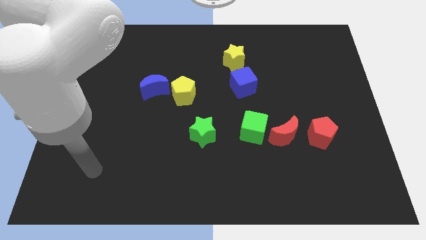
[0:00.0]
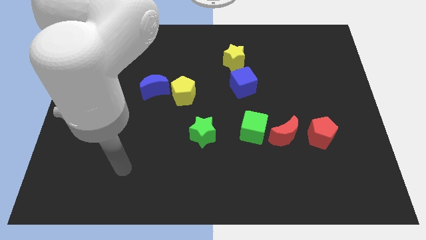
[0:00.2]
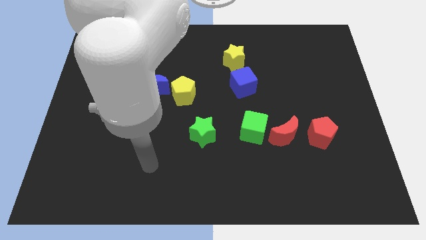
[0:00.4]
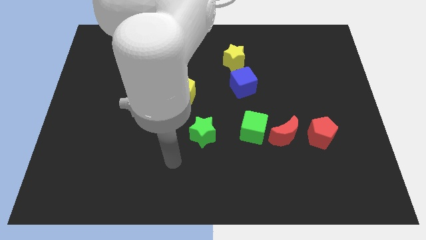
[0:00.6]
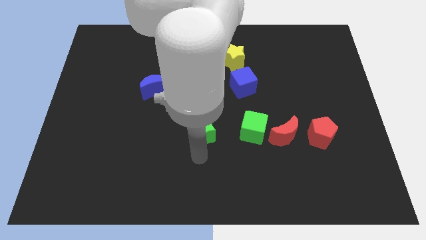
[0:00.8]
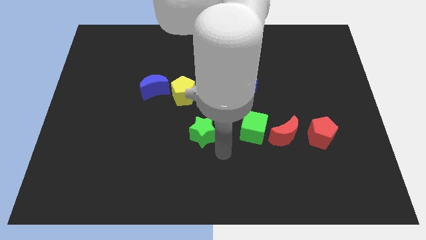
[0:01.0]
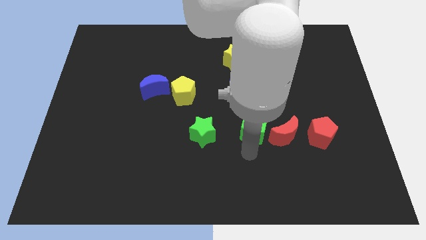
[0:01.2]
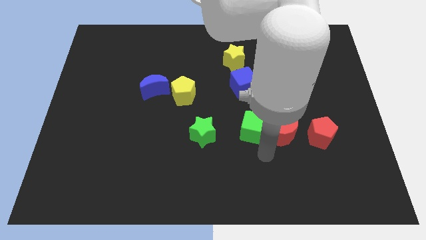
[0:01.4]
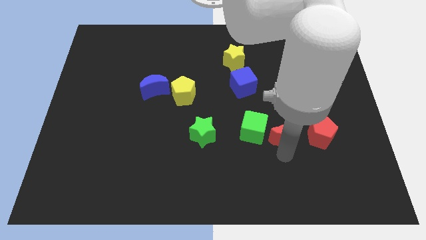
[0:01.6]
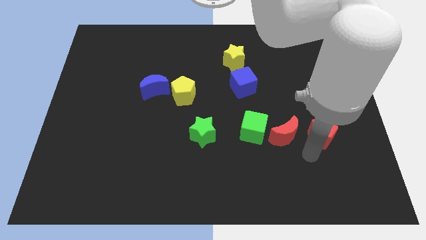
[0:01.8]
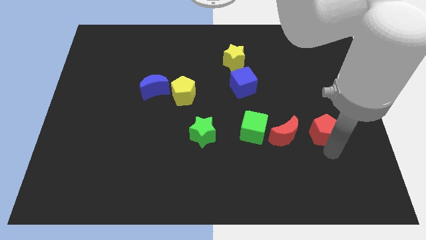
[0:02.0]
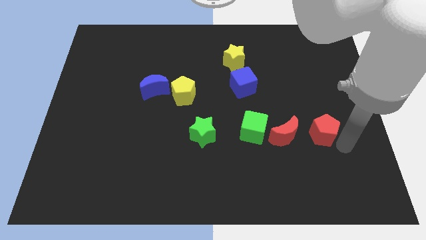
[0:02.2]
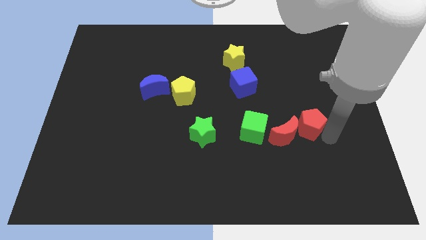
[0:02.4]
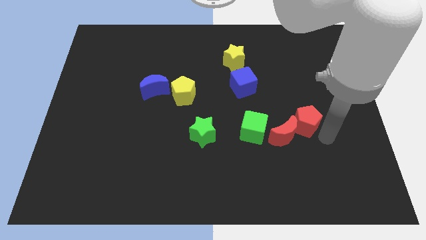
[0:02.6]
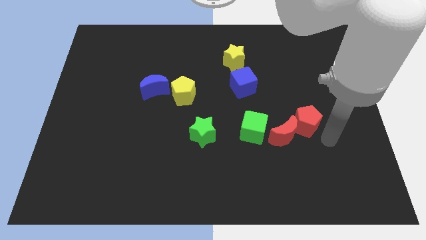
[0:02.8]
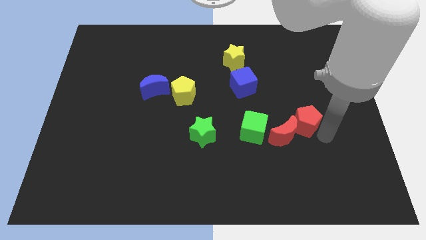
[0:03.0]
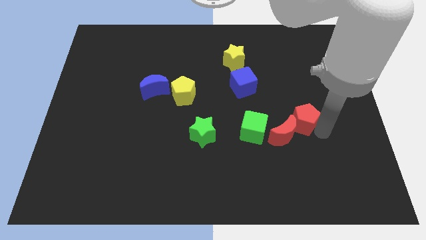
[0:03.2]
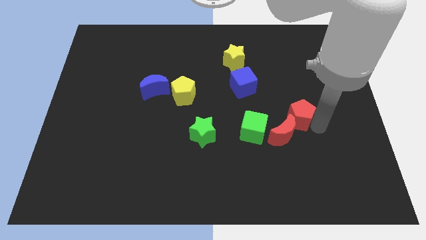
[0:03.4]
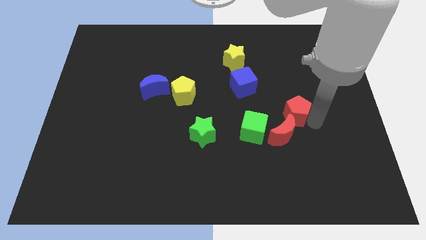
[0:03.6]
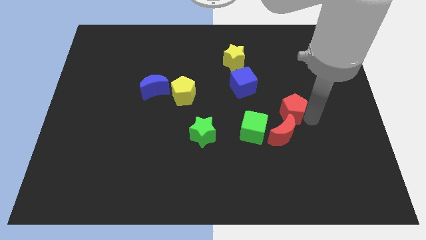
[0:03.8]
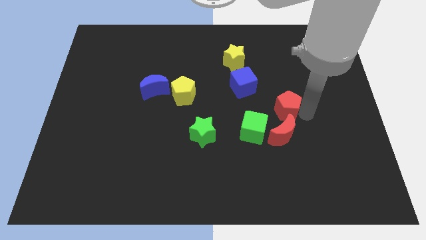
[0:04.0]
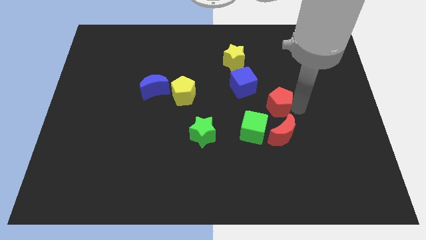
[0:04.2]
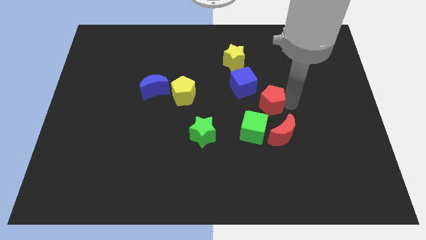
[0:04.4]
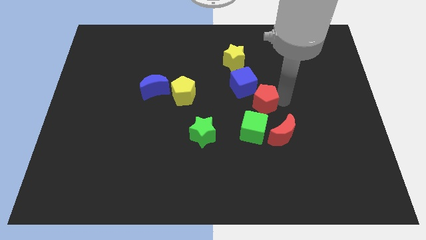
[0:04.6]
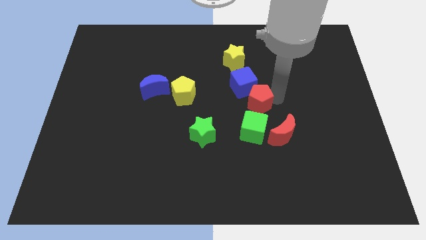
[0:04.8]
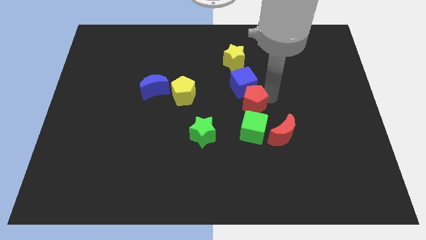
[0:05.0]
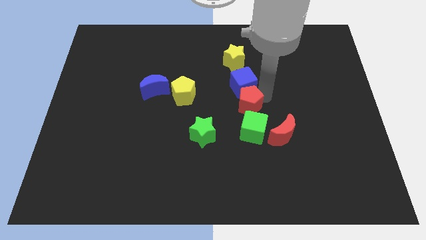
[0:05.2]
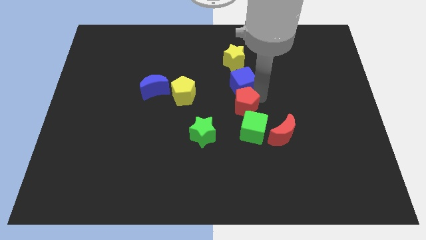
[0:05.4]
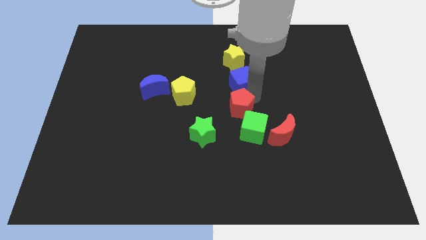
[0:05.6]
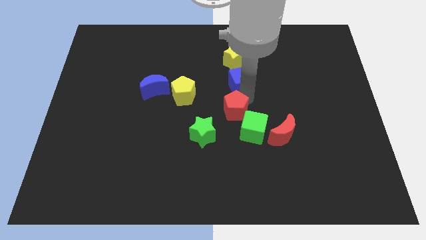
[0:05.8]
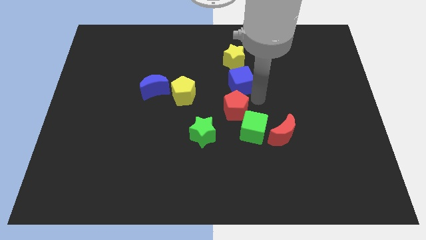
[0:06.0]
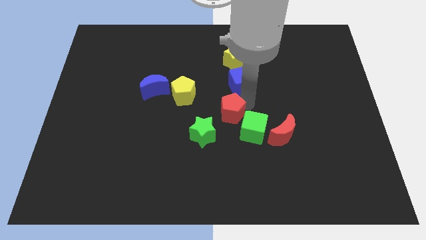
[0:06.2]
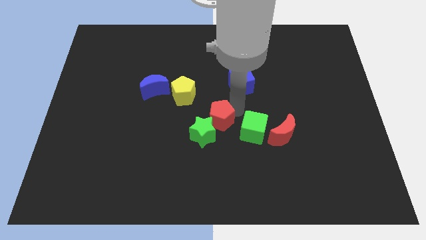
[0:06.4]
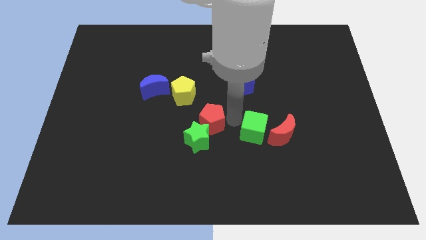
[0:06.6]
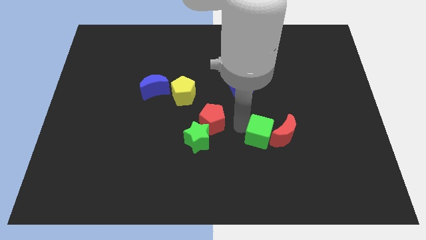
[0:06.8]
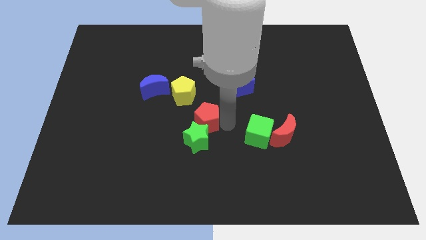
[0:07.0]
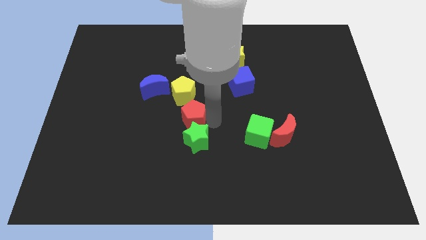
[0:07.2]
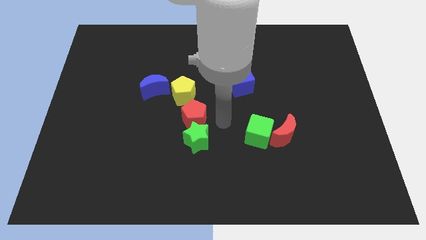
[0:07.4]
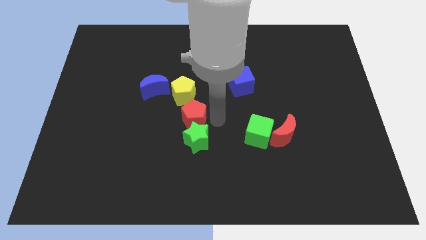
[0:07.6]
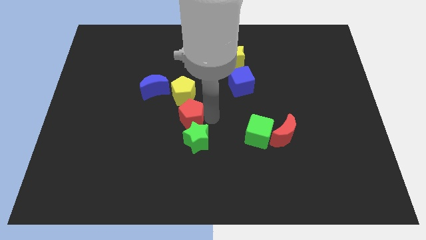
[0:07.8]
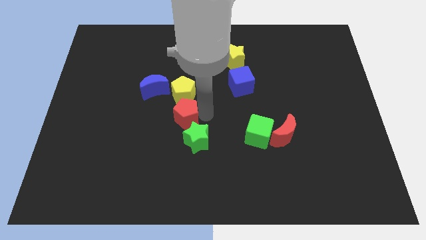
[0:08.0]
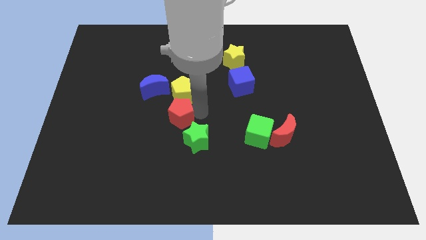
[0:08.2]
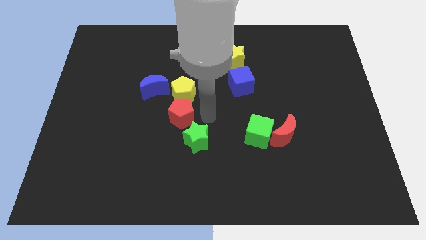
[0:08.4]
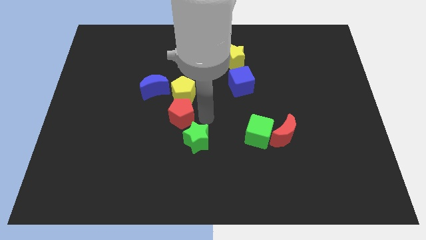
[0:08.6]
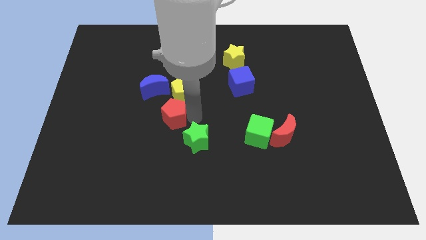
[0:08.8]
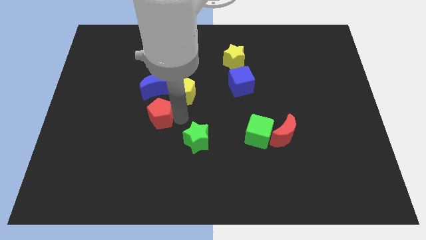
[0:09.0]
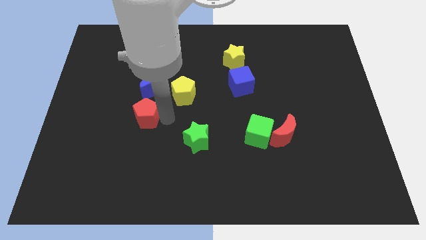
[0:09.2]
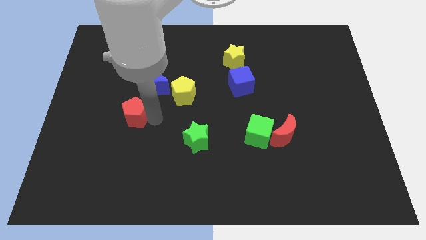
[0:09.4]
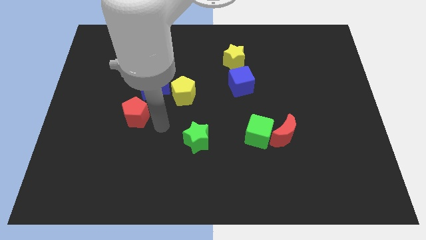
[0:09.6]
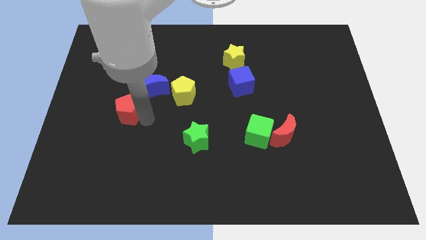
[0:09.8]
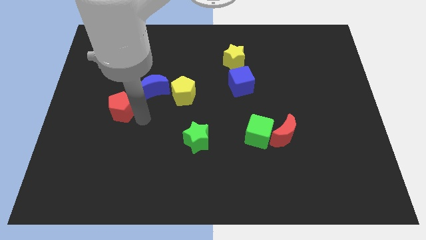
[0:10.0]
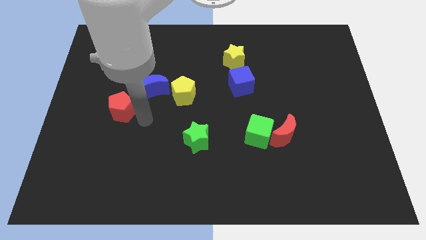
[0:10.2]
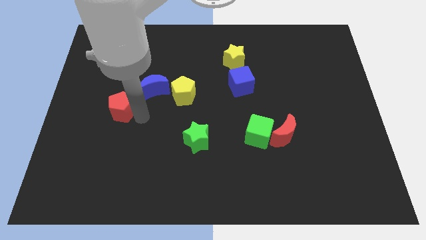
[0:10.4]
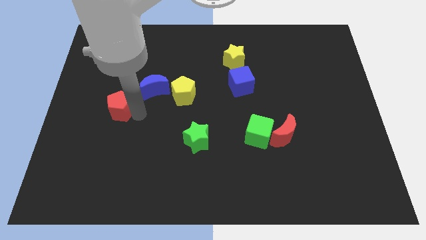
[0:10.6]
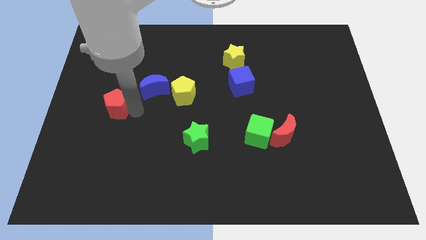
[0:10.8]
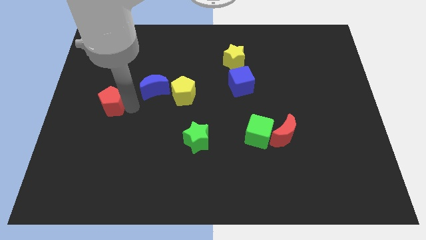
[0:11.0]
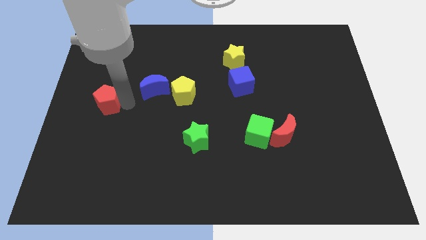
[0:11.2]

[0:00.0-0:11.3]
move the red pentagon to the center left

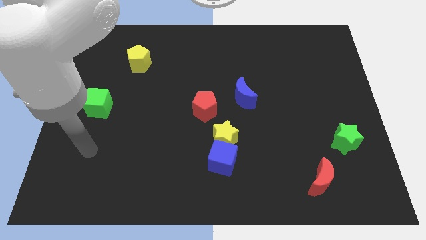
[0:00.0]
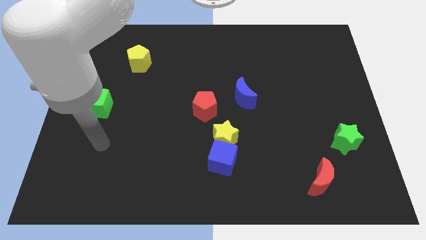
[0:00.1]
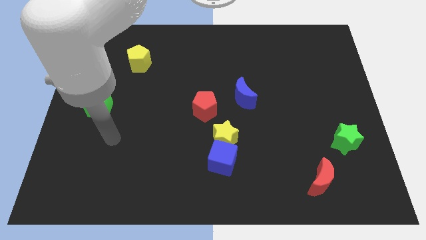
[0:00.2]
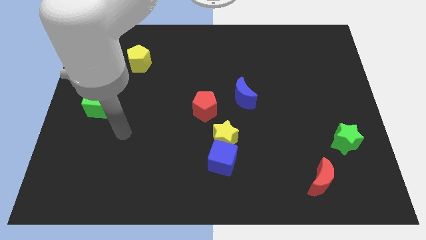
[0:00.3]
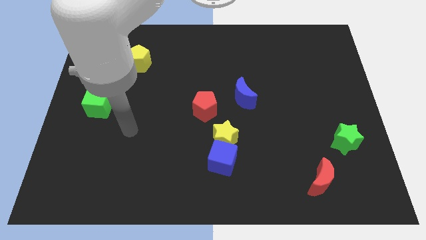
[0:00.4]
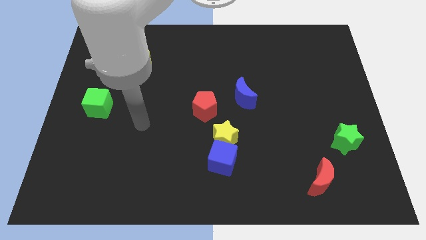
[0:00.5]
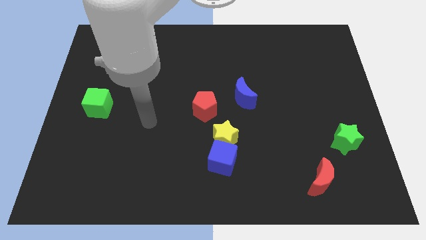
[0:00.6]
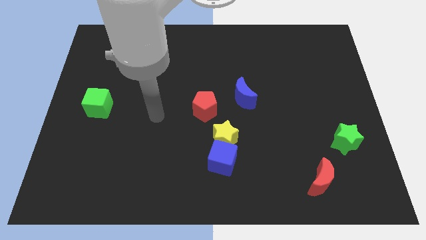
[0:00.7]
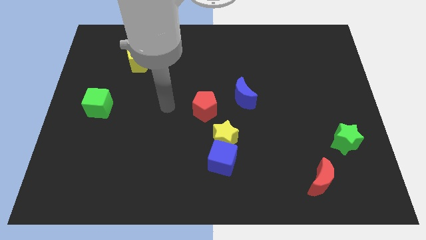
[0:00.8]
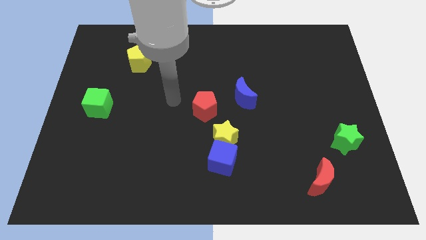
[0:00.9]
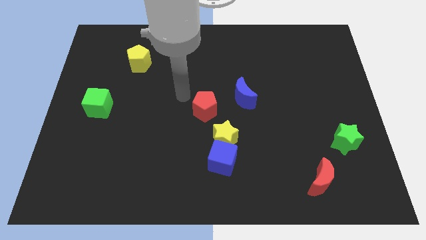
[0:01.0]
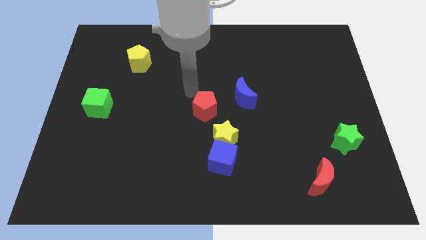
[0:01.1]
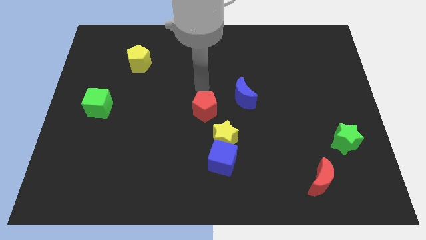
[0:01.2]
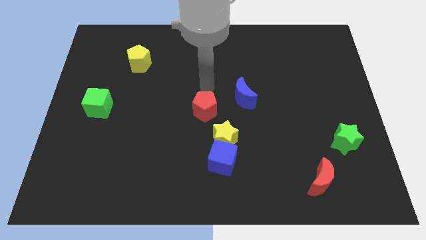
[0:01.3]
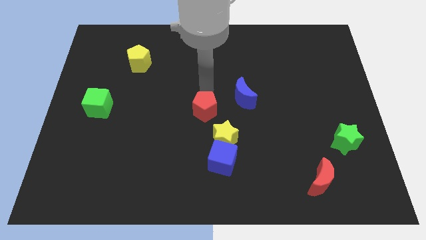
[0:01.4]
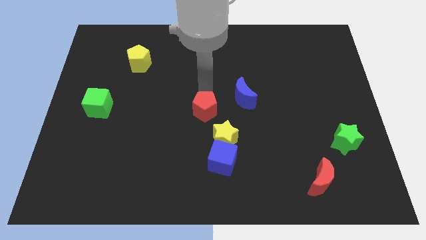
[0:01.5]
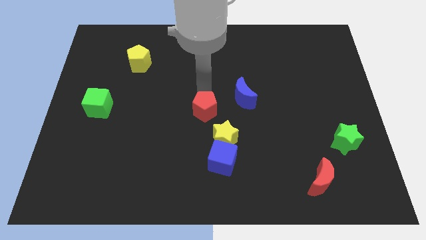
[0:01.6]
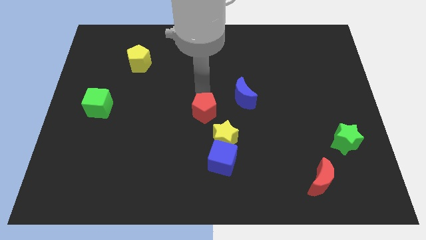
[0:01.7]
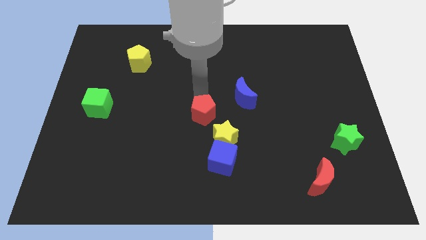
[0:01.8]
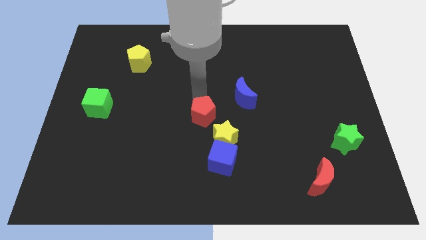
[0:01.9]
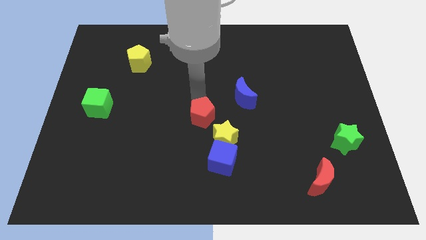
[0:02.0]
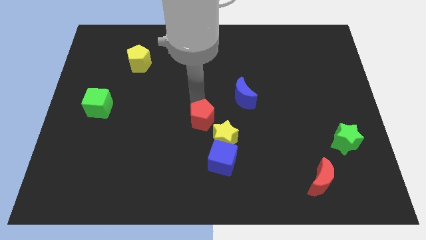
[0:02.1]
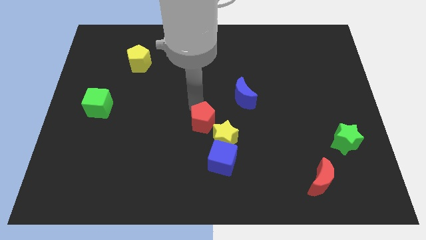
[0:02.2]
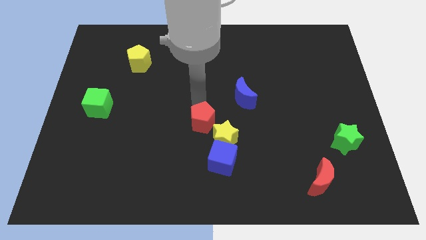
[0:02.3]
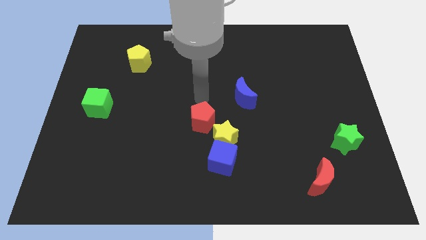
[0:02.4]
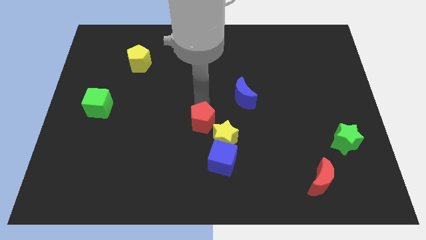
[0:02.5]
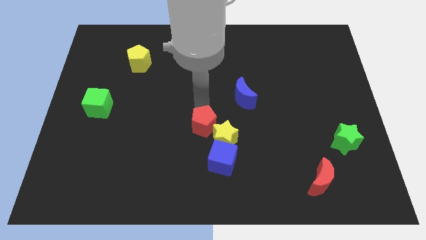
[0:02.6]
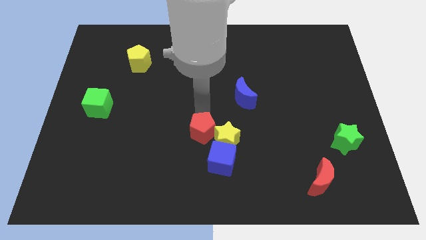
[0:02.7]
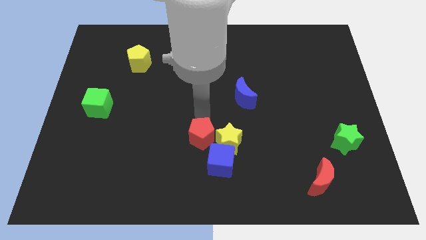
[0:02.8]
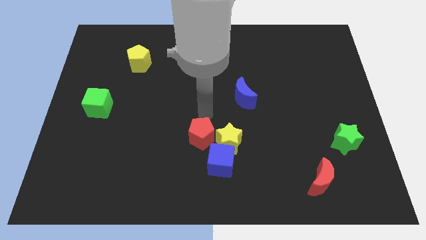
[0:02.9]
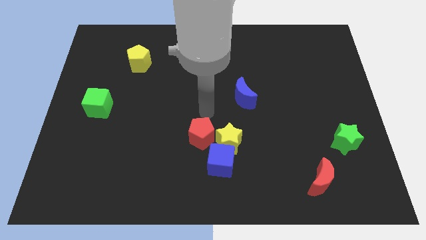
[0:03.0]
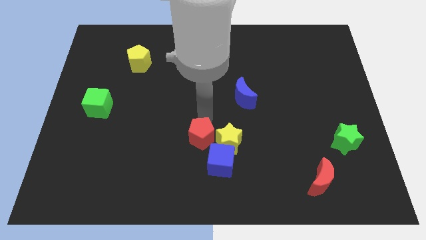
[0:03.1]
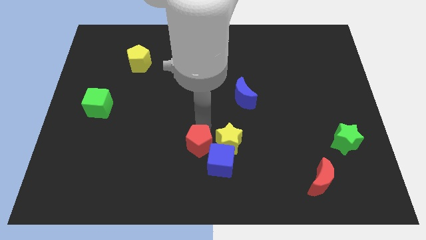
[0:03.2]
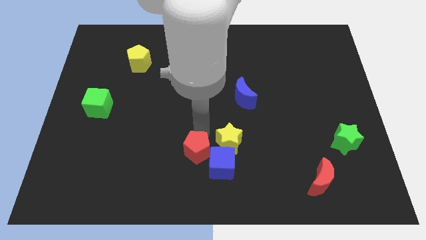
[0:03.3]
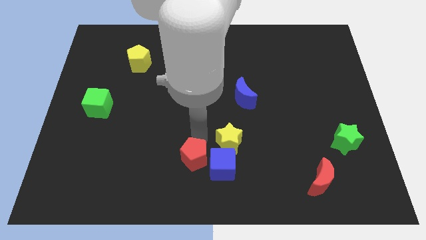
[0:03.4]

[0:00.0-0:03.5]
move the red pentagon to the bottom
